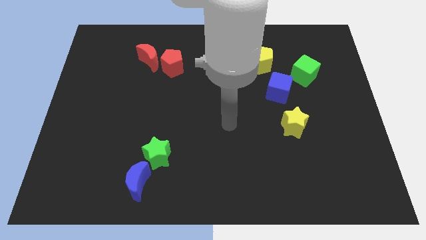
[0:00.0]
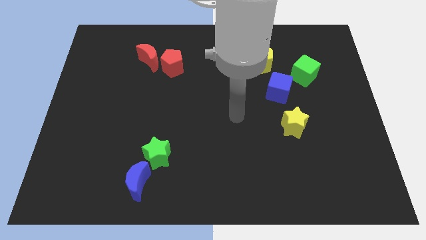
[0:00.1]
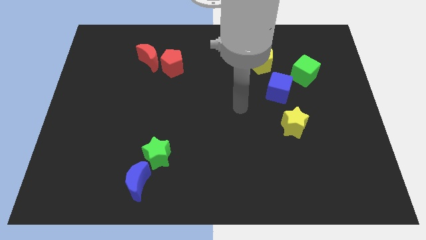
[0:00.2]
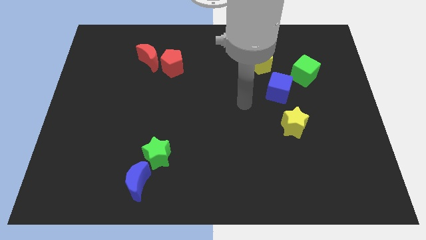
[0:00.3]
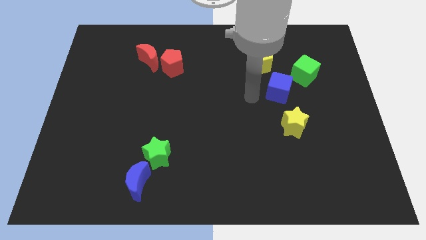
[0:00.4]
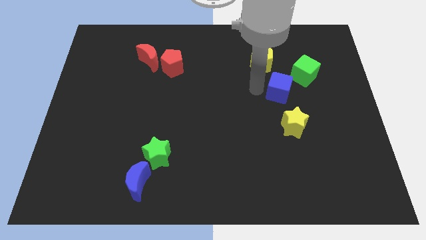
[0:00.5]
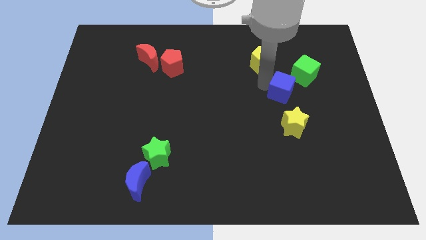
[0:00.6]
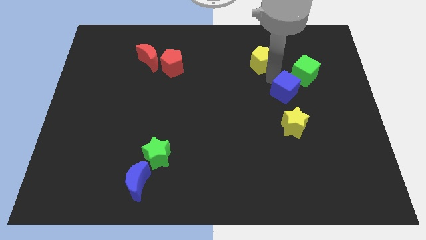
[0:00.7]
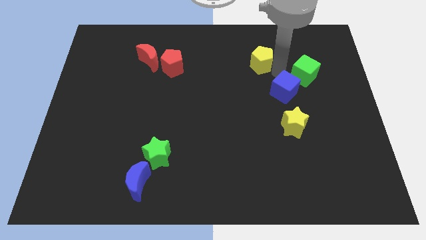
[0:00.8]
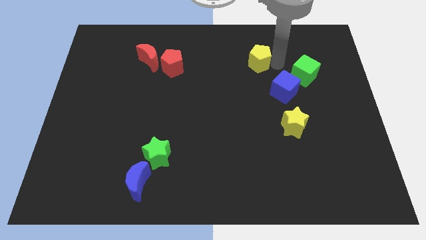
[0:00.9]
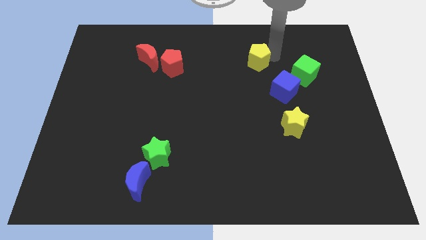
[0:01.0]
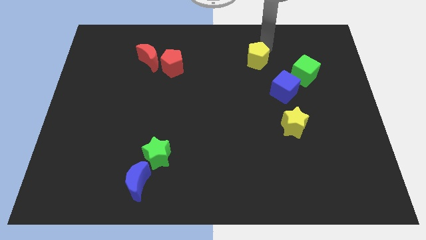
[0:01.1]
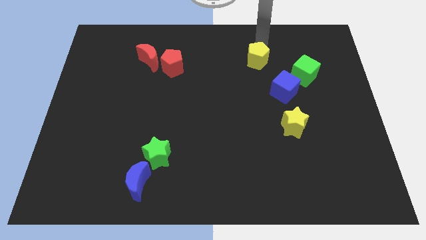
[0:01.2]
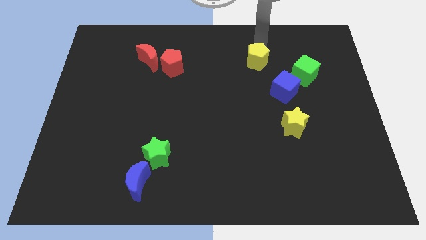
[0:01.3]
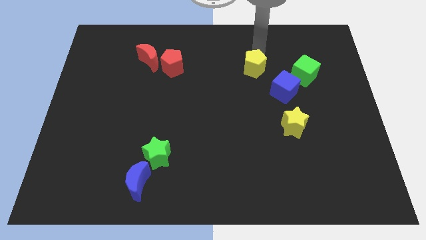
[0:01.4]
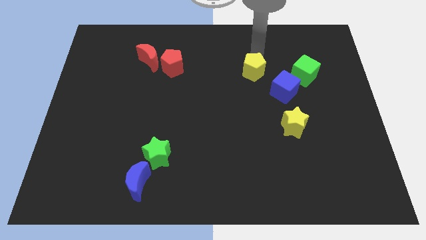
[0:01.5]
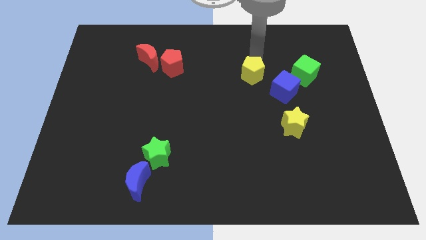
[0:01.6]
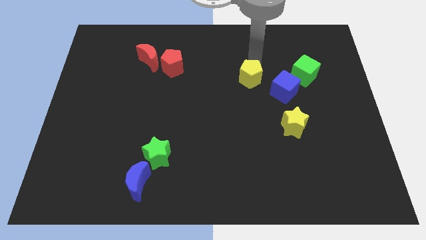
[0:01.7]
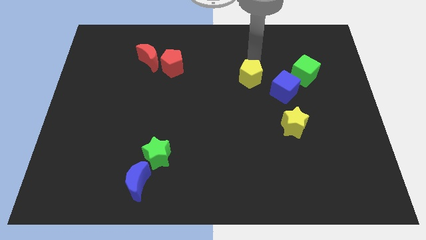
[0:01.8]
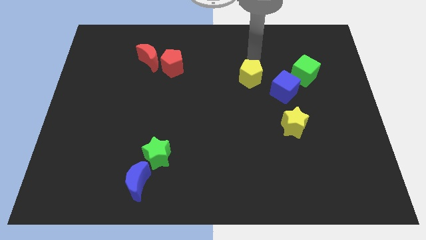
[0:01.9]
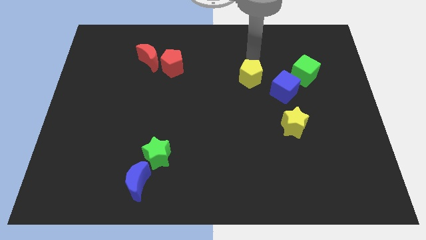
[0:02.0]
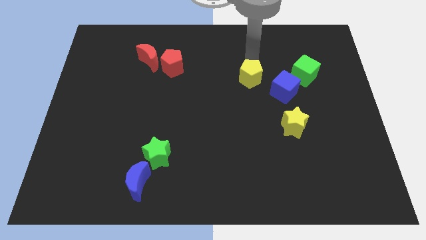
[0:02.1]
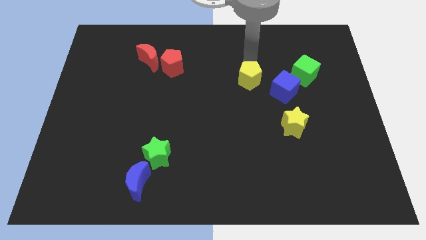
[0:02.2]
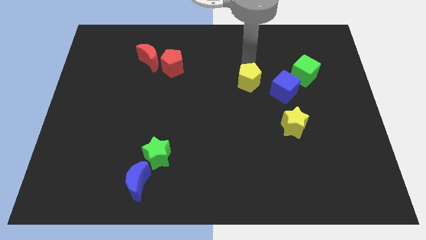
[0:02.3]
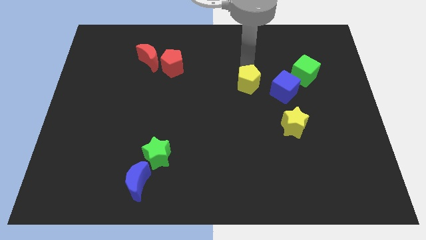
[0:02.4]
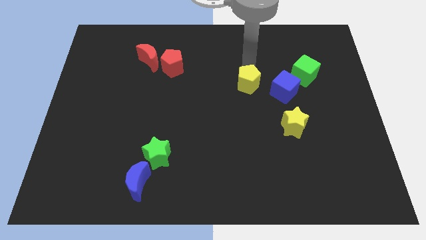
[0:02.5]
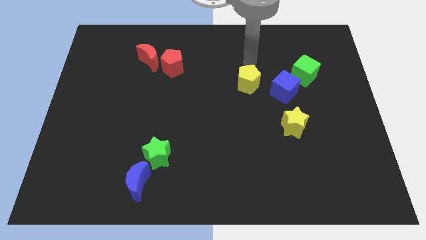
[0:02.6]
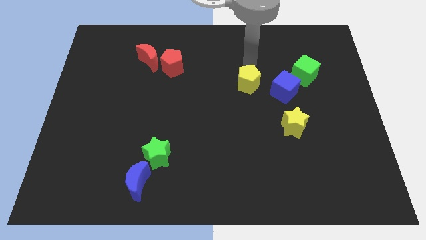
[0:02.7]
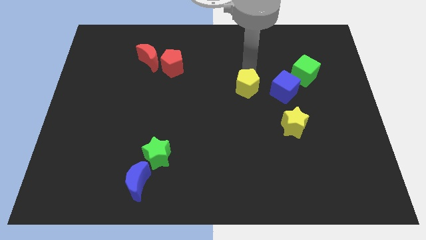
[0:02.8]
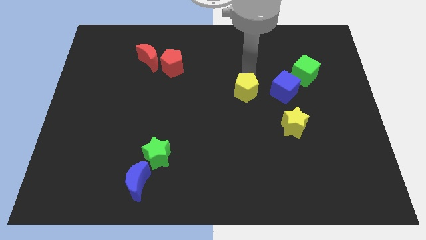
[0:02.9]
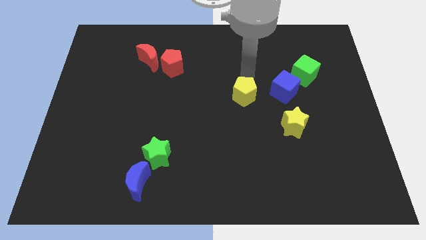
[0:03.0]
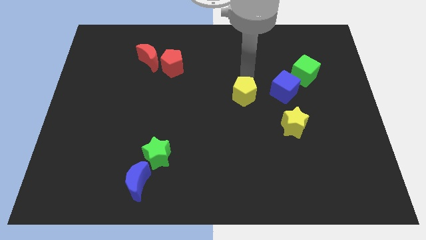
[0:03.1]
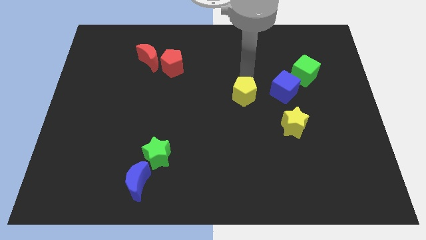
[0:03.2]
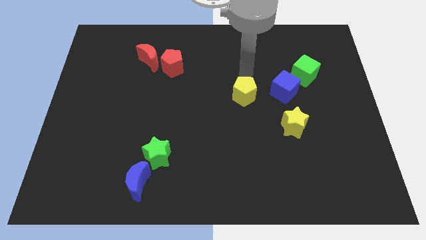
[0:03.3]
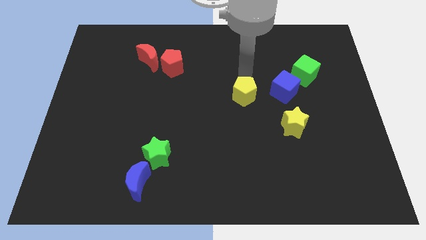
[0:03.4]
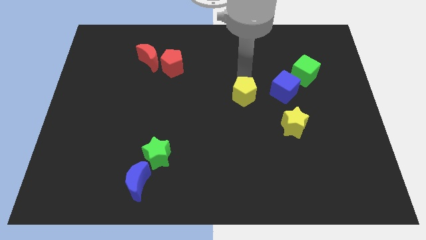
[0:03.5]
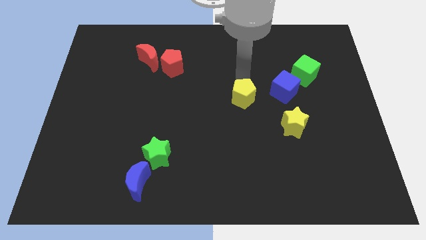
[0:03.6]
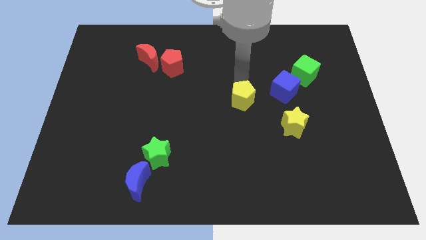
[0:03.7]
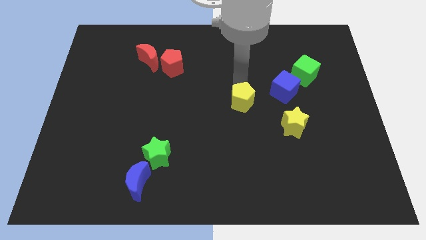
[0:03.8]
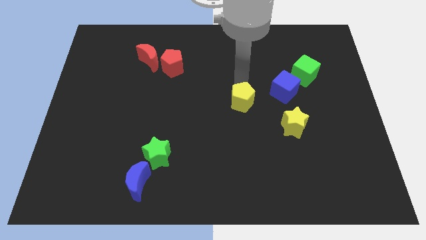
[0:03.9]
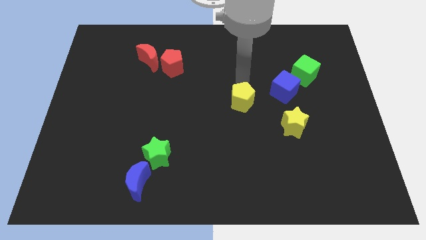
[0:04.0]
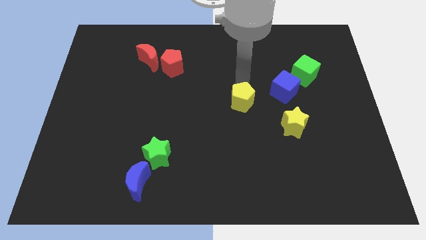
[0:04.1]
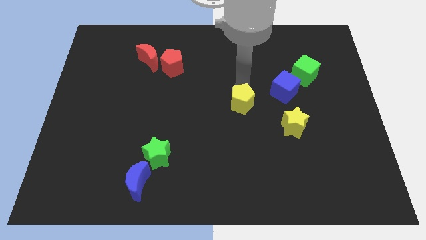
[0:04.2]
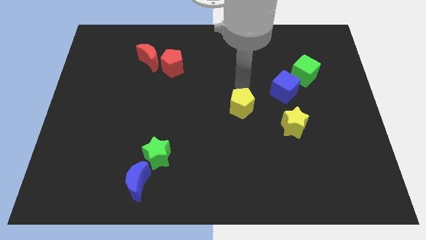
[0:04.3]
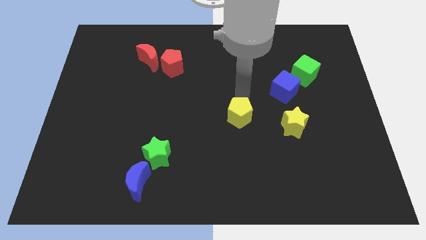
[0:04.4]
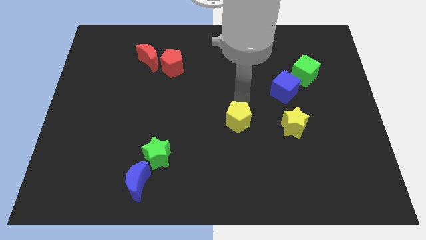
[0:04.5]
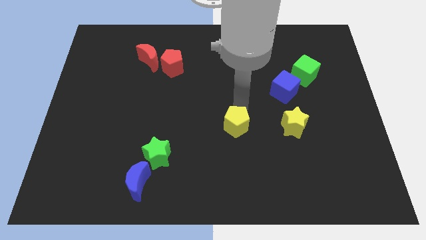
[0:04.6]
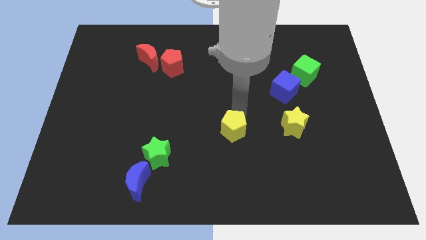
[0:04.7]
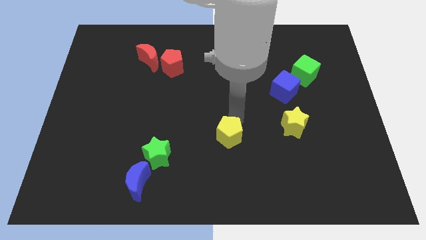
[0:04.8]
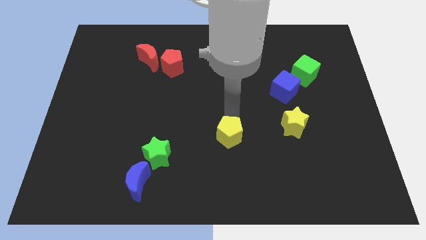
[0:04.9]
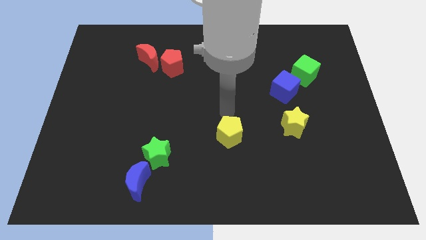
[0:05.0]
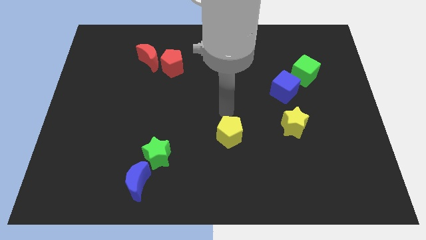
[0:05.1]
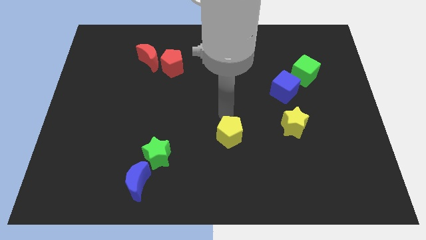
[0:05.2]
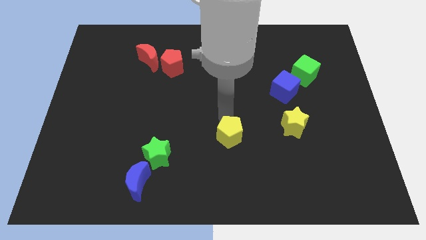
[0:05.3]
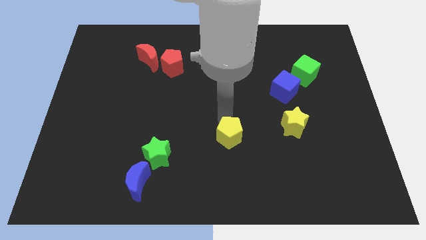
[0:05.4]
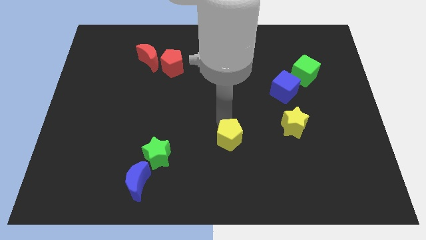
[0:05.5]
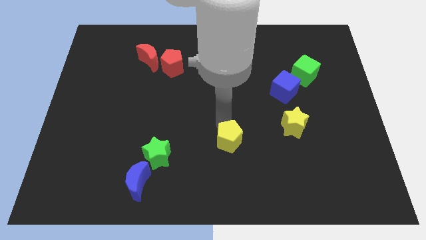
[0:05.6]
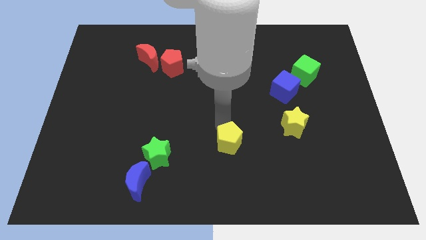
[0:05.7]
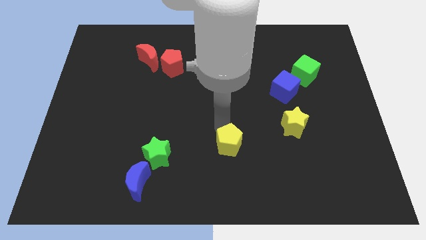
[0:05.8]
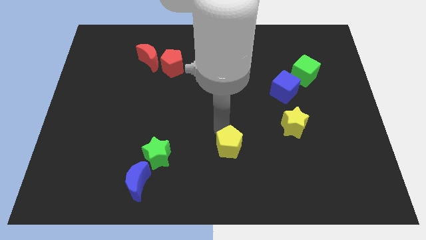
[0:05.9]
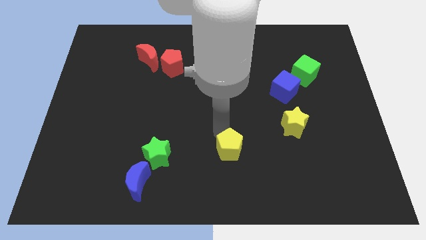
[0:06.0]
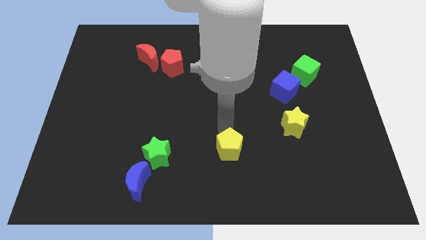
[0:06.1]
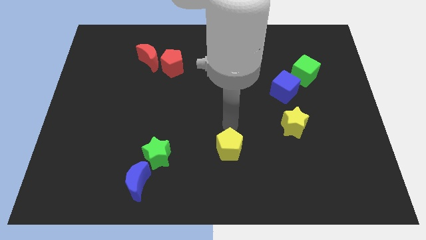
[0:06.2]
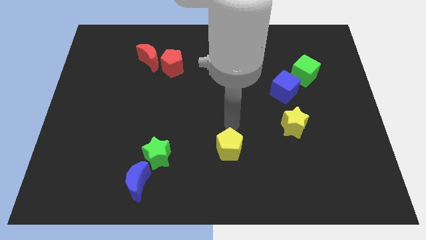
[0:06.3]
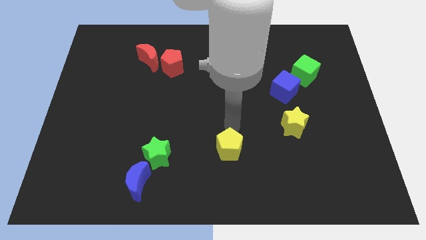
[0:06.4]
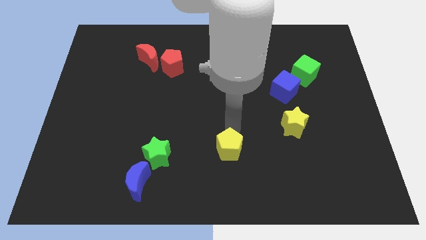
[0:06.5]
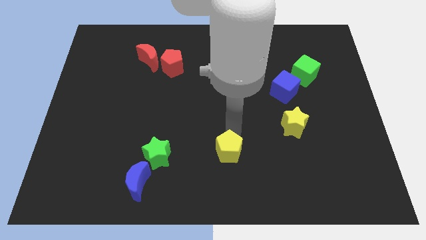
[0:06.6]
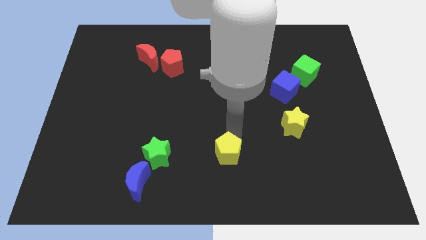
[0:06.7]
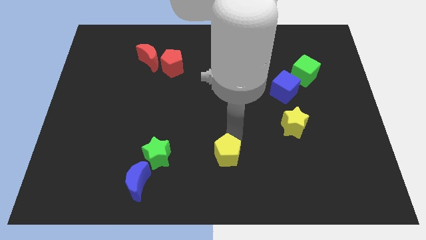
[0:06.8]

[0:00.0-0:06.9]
move the yellow pentagon to the bottom side
